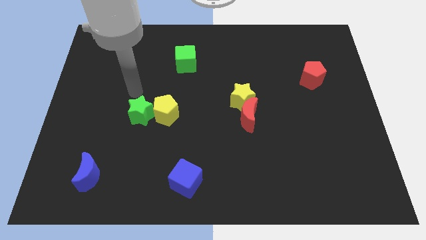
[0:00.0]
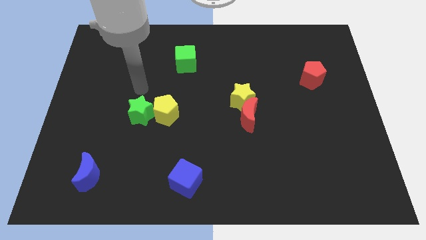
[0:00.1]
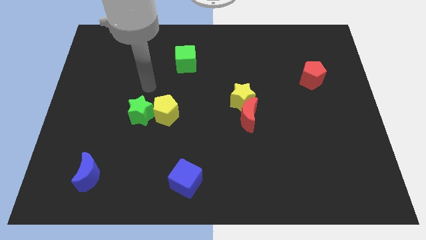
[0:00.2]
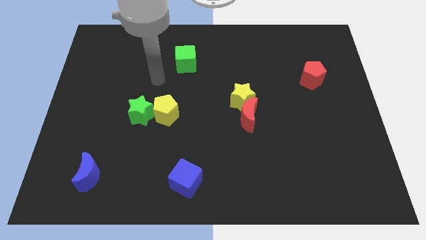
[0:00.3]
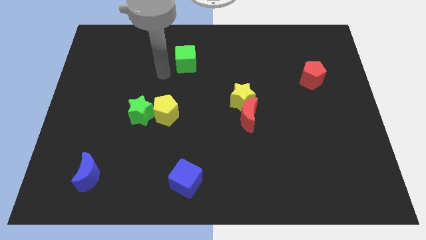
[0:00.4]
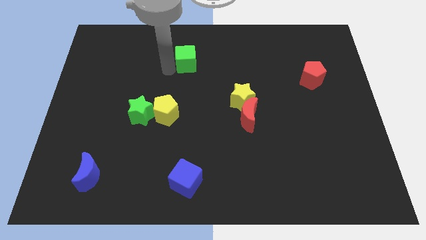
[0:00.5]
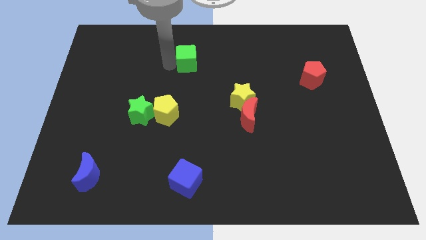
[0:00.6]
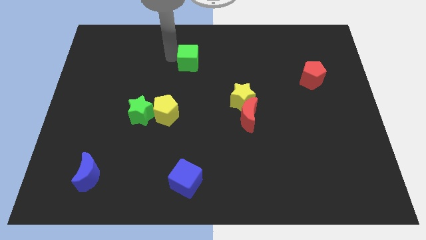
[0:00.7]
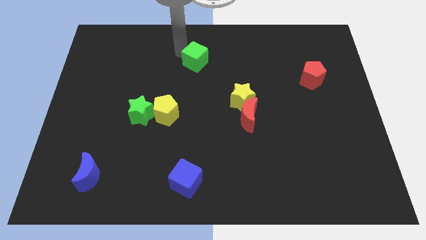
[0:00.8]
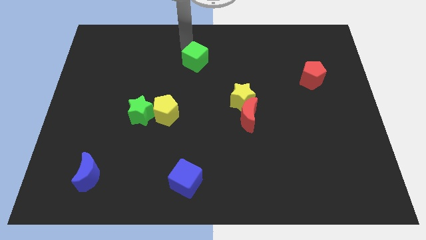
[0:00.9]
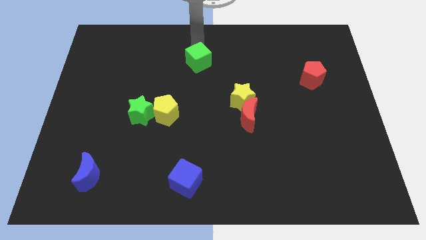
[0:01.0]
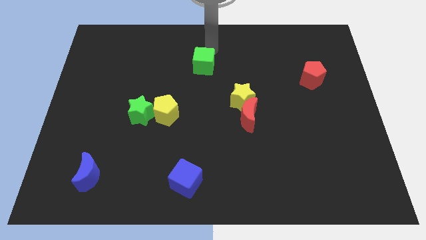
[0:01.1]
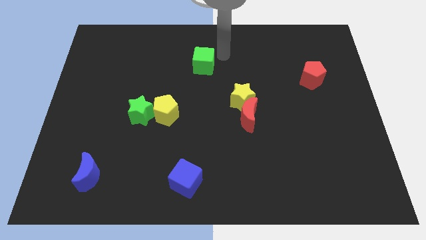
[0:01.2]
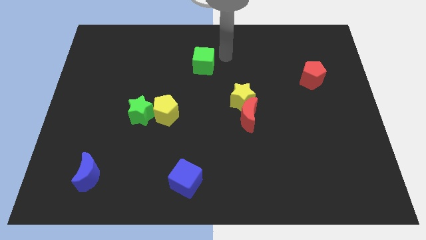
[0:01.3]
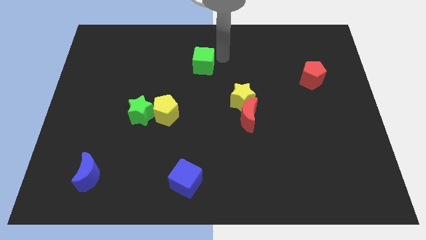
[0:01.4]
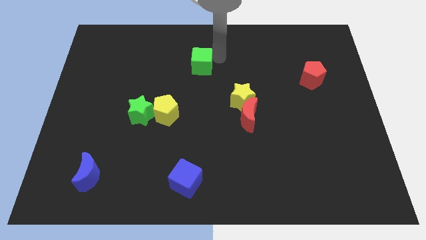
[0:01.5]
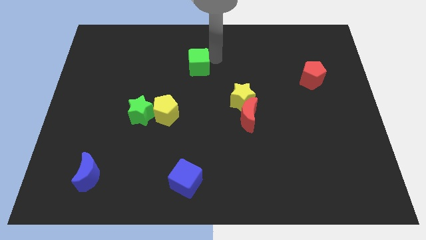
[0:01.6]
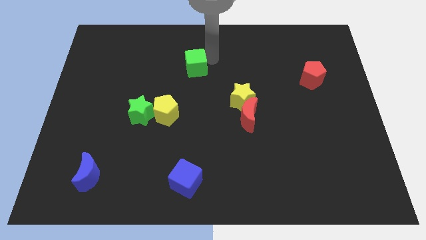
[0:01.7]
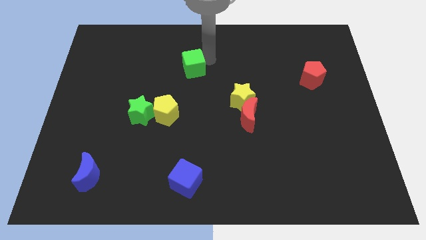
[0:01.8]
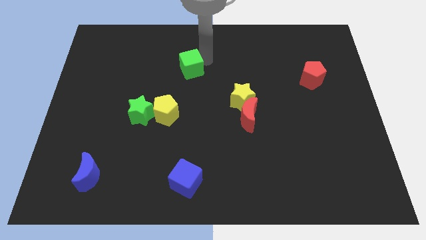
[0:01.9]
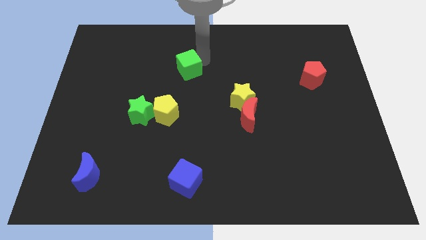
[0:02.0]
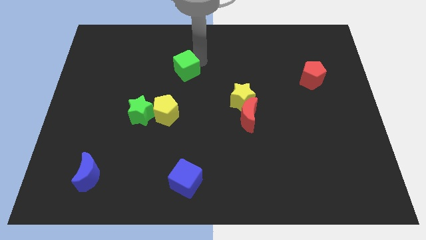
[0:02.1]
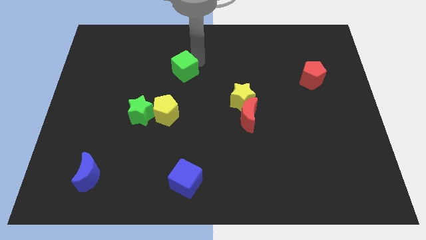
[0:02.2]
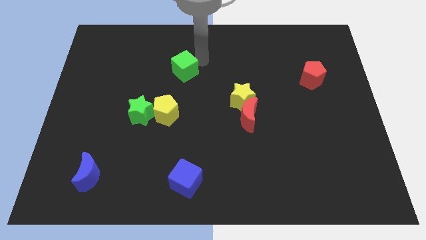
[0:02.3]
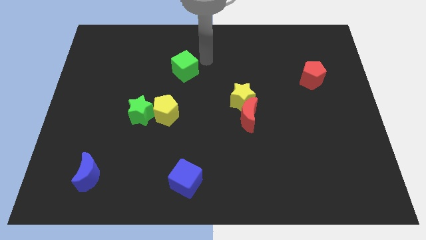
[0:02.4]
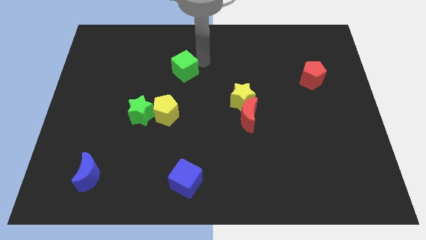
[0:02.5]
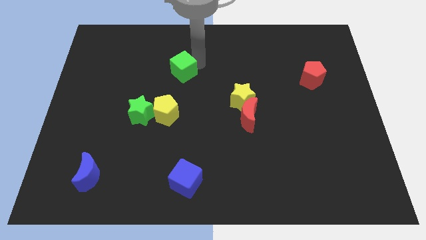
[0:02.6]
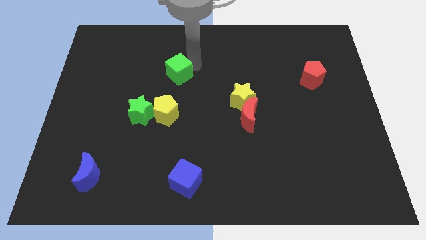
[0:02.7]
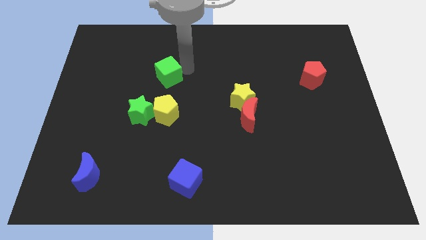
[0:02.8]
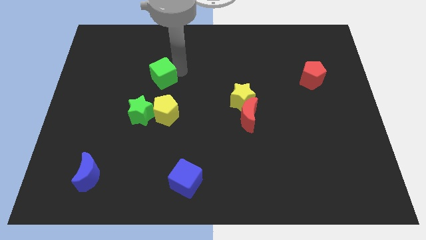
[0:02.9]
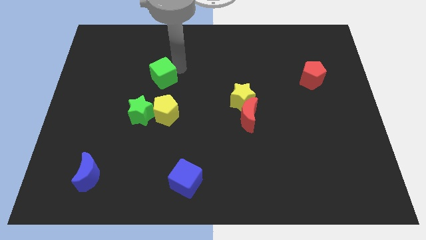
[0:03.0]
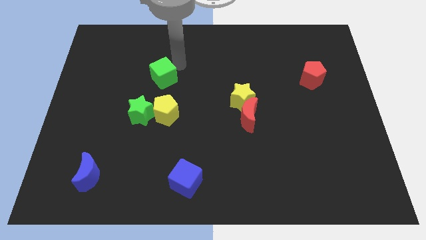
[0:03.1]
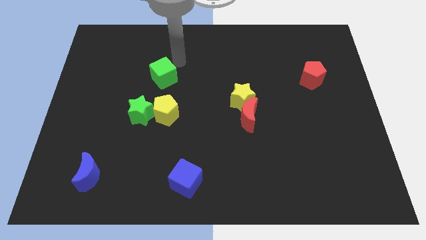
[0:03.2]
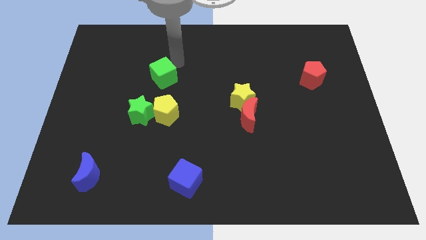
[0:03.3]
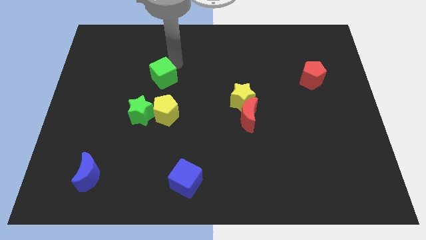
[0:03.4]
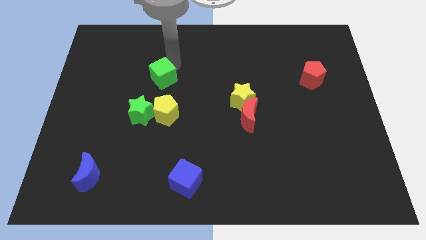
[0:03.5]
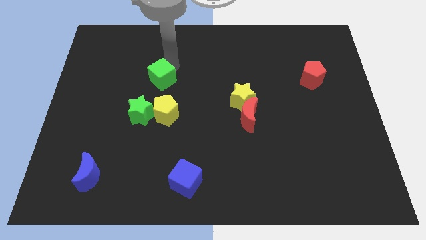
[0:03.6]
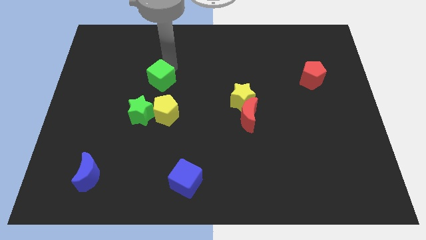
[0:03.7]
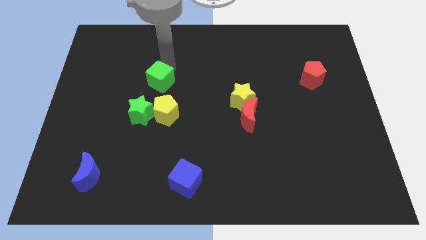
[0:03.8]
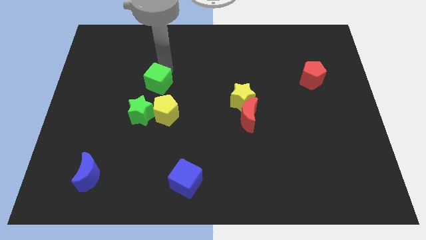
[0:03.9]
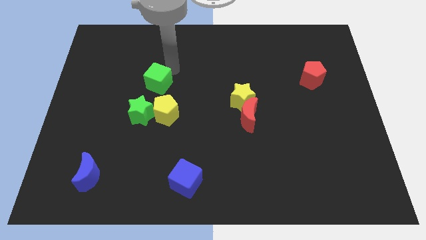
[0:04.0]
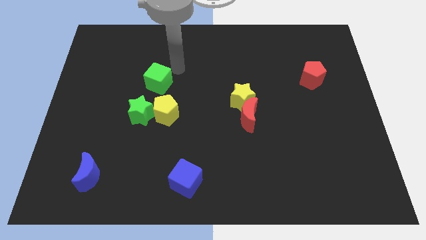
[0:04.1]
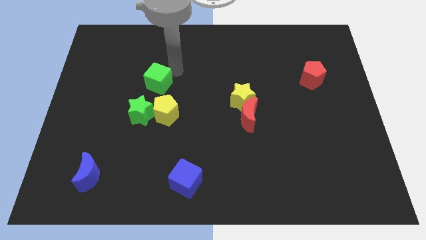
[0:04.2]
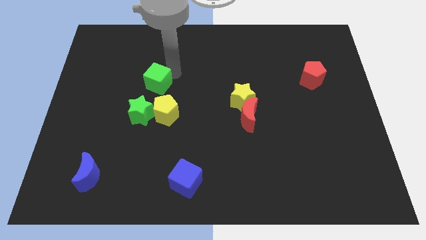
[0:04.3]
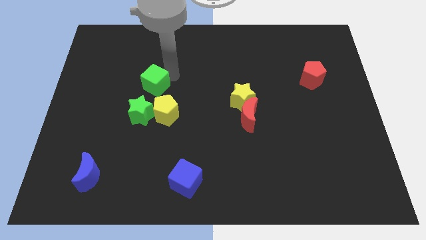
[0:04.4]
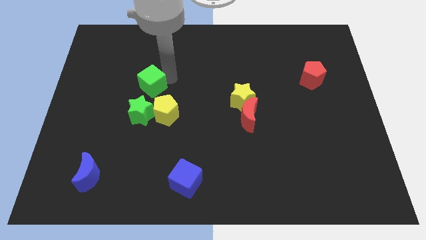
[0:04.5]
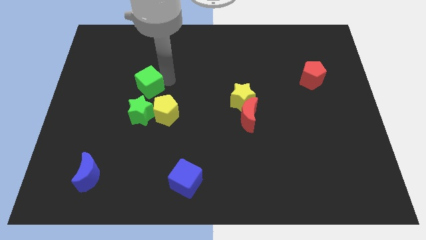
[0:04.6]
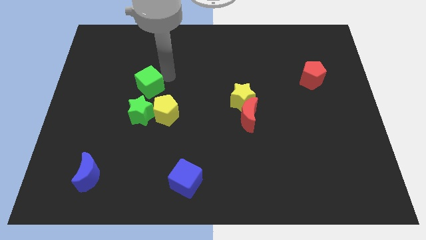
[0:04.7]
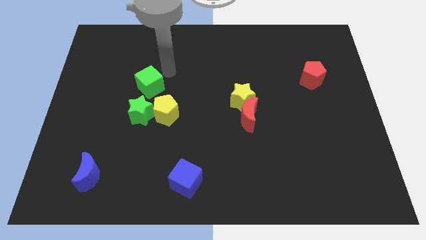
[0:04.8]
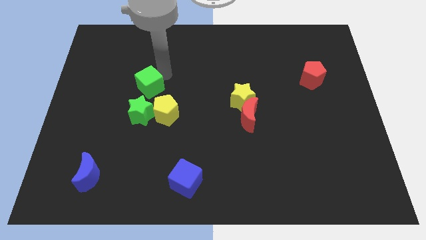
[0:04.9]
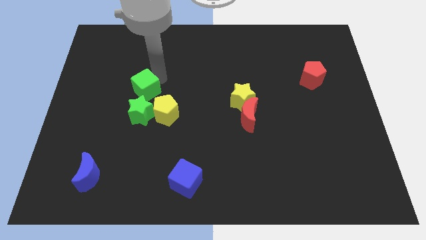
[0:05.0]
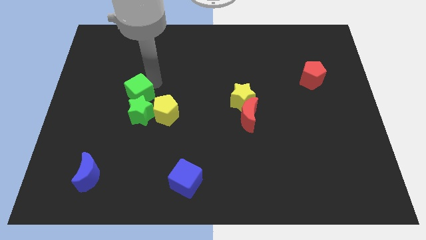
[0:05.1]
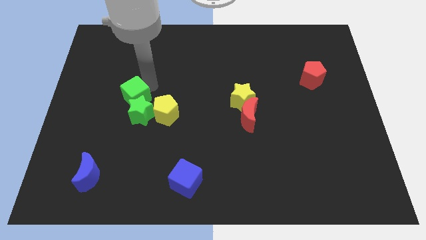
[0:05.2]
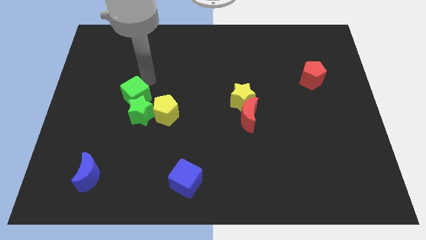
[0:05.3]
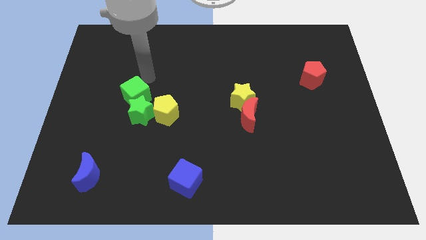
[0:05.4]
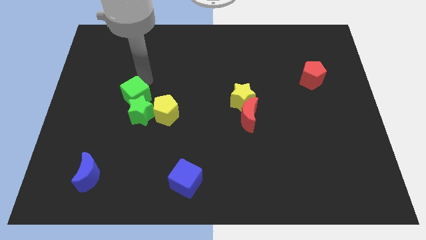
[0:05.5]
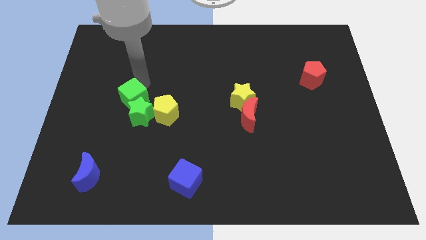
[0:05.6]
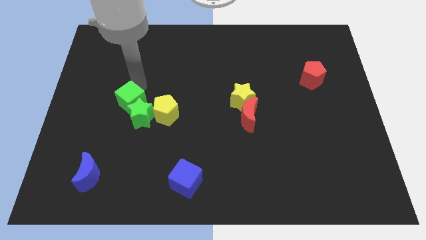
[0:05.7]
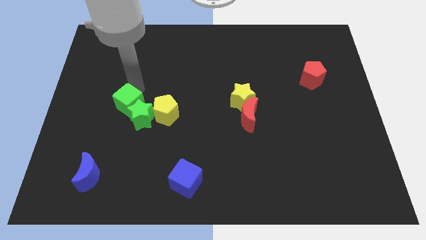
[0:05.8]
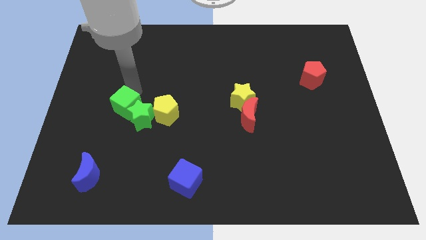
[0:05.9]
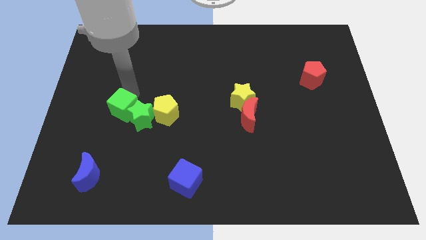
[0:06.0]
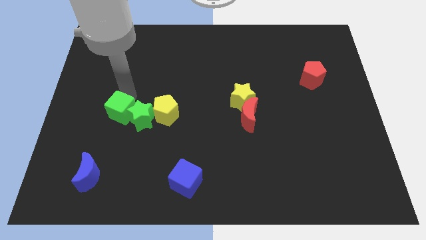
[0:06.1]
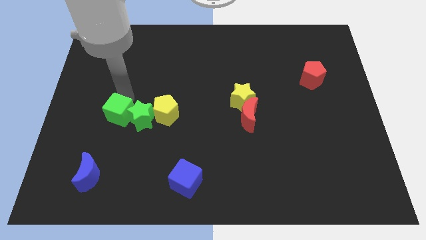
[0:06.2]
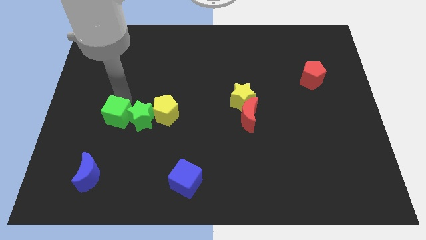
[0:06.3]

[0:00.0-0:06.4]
push the green cube to the bottom left of the green star
